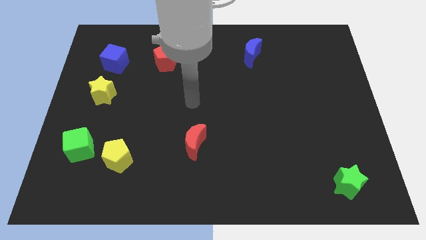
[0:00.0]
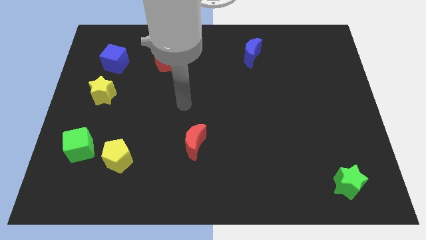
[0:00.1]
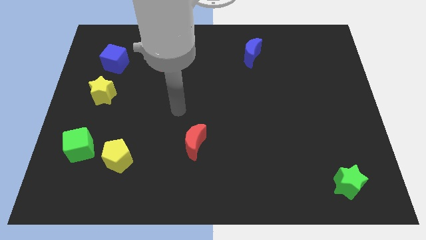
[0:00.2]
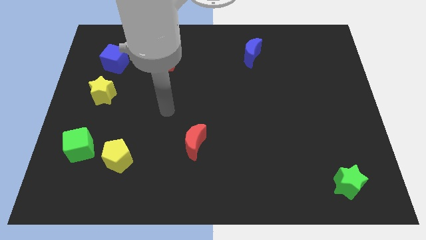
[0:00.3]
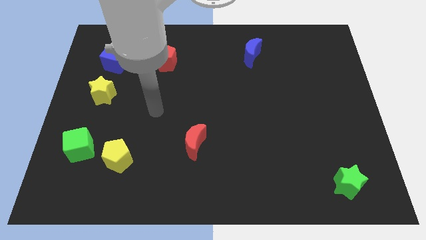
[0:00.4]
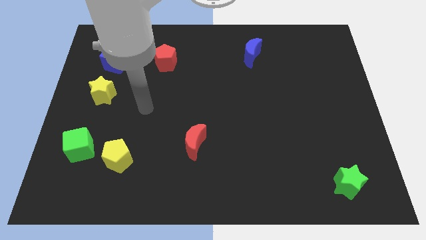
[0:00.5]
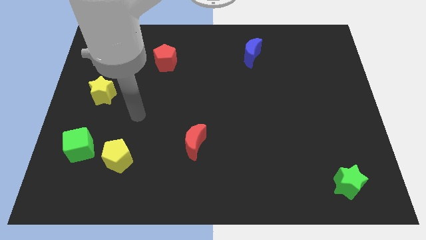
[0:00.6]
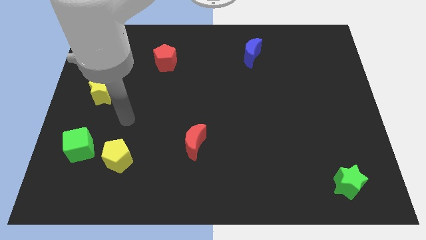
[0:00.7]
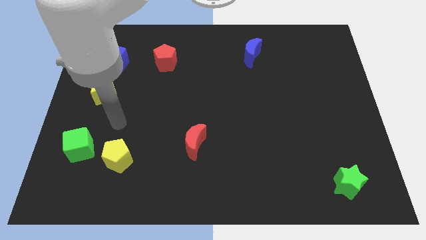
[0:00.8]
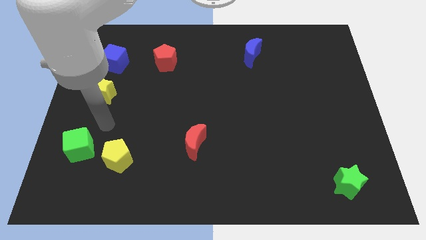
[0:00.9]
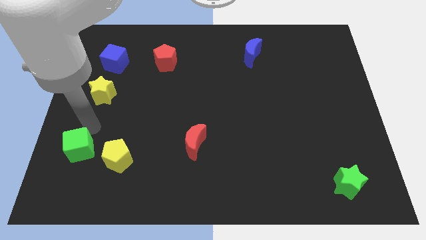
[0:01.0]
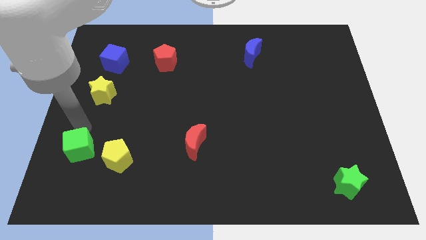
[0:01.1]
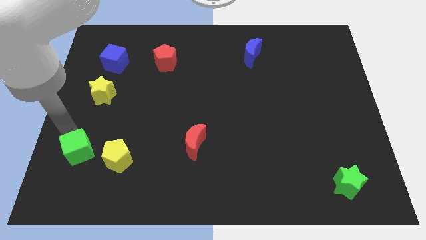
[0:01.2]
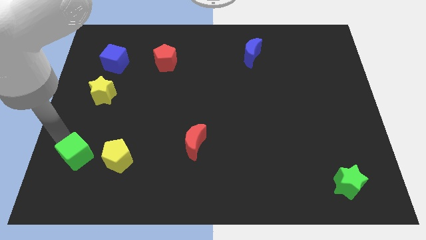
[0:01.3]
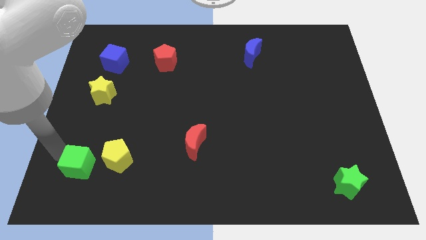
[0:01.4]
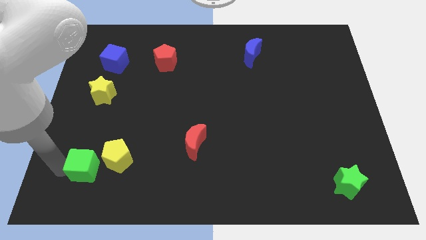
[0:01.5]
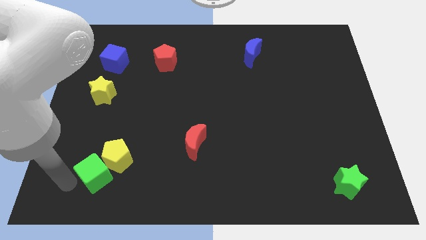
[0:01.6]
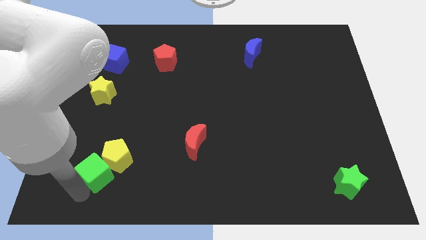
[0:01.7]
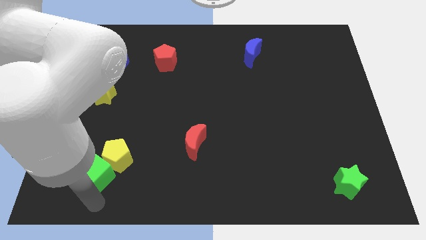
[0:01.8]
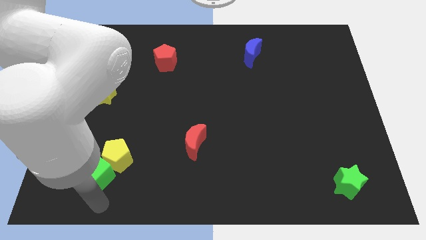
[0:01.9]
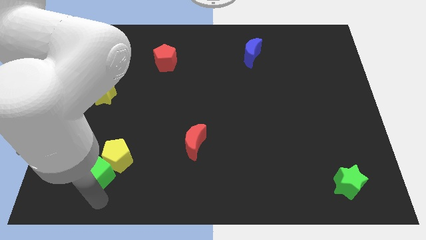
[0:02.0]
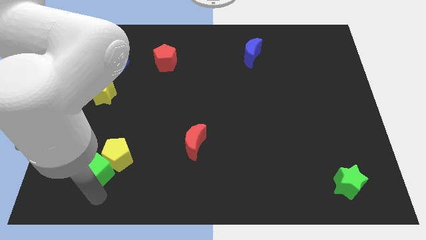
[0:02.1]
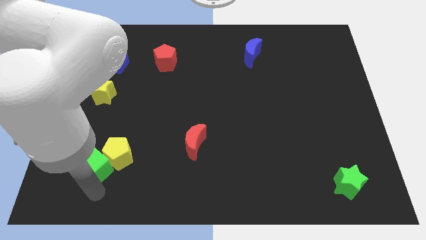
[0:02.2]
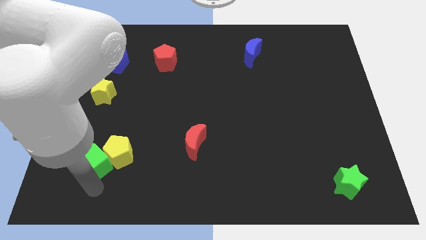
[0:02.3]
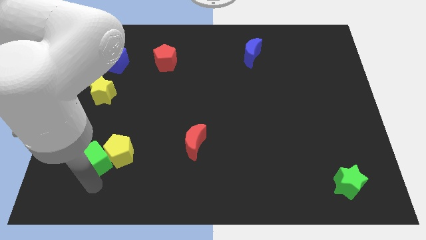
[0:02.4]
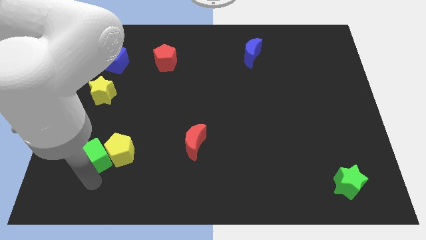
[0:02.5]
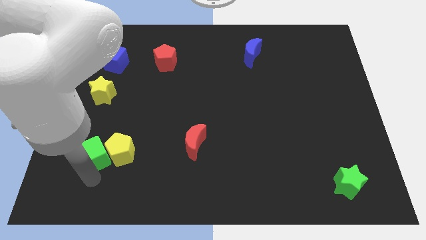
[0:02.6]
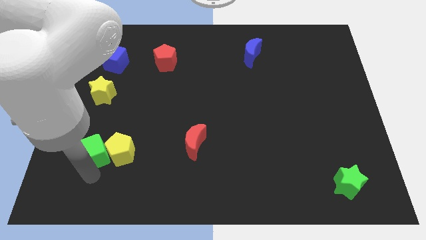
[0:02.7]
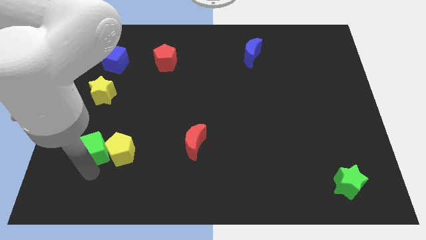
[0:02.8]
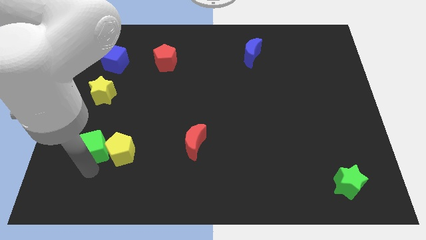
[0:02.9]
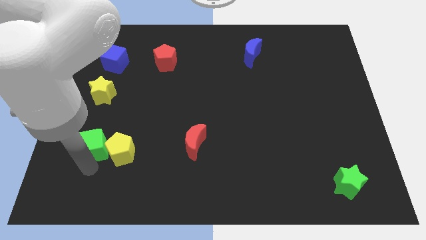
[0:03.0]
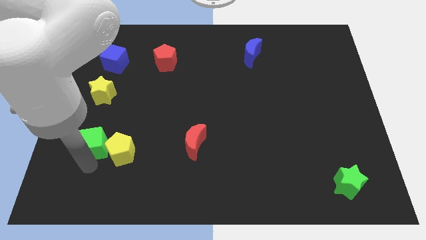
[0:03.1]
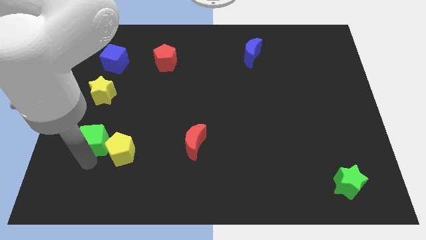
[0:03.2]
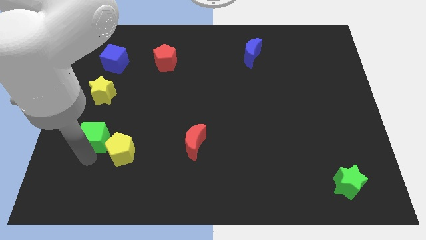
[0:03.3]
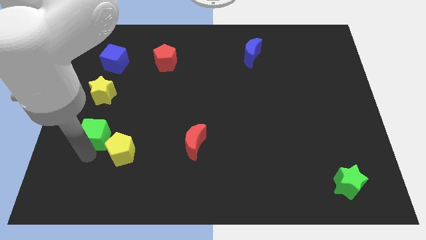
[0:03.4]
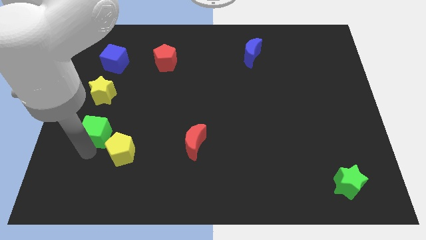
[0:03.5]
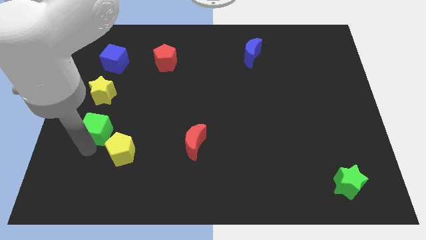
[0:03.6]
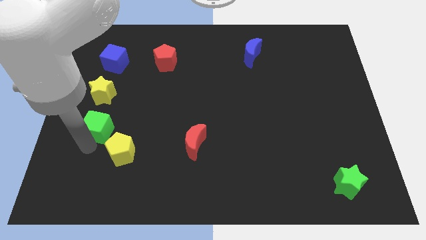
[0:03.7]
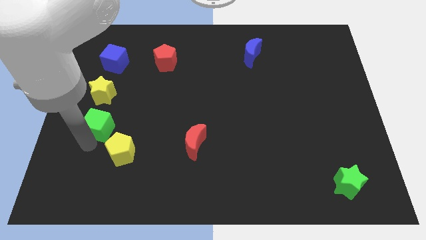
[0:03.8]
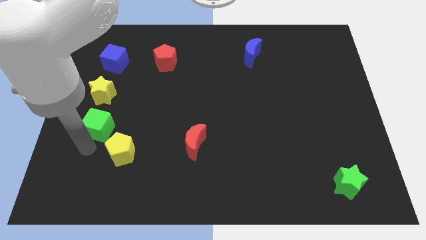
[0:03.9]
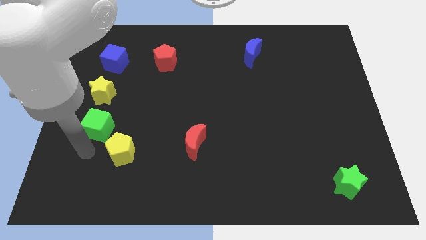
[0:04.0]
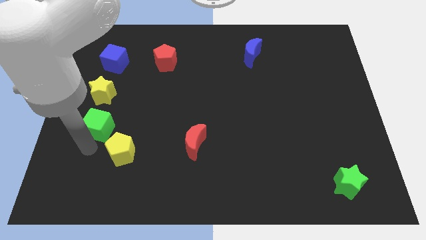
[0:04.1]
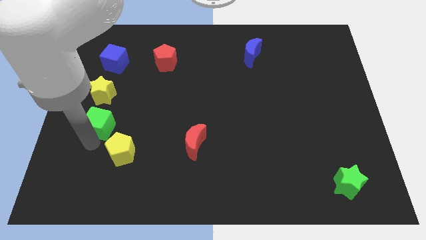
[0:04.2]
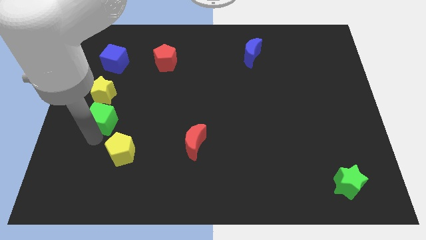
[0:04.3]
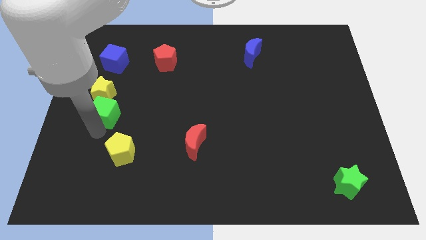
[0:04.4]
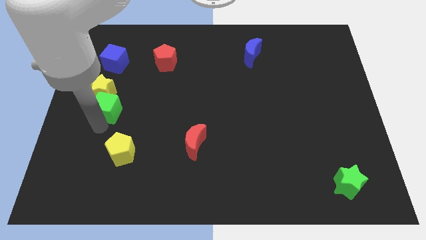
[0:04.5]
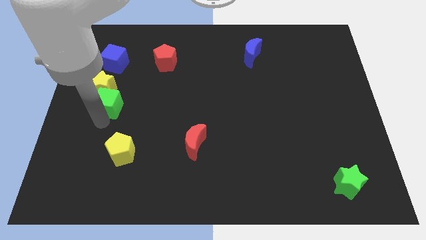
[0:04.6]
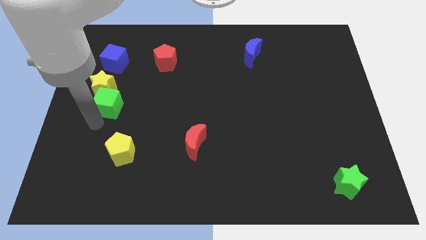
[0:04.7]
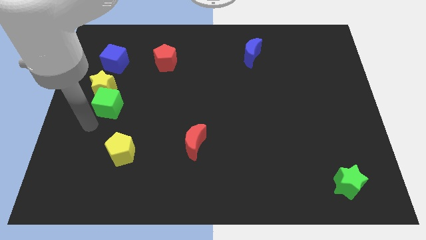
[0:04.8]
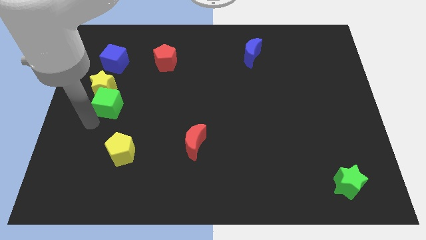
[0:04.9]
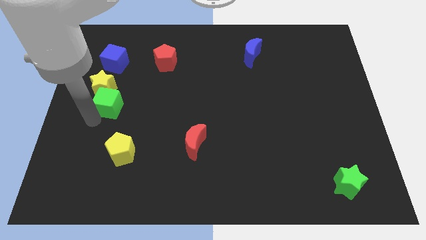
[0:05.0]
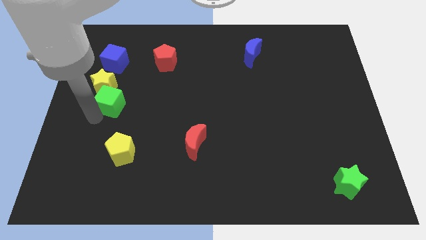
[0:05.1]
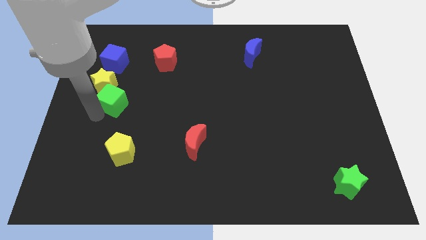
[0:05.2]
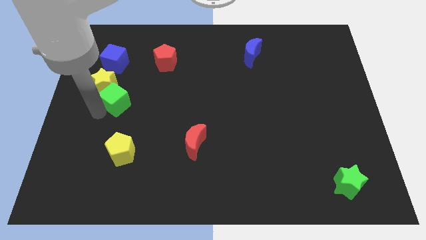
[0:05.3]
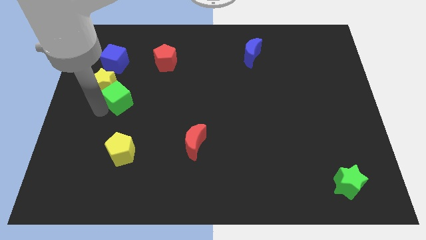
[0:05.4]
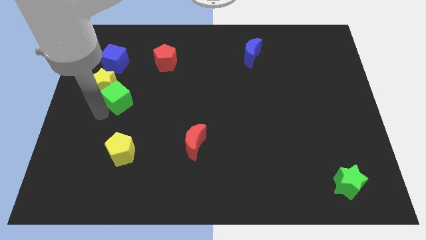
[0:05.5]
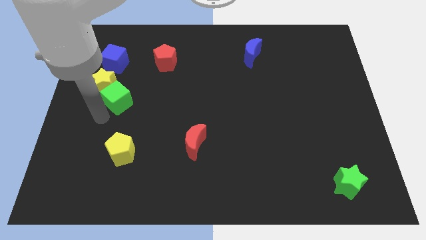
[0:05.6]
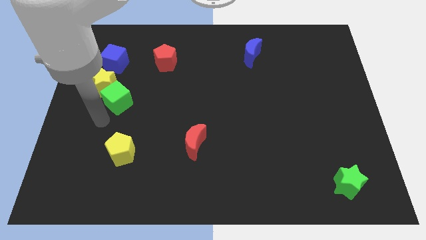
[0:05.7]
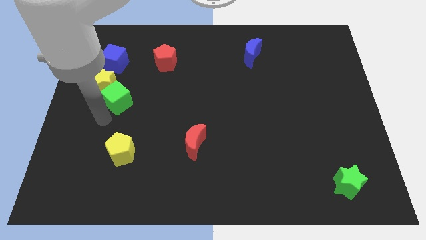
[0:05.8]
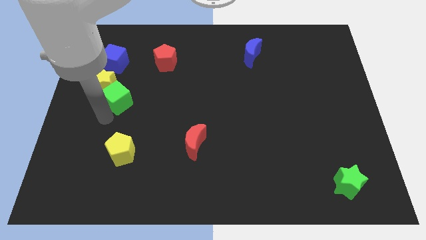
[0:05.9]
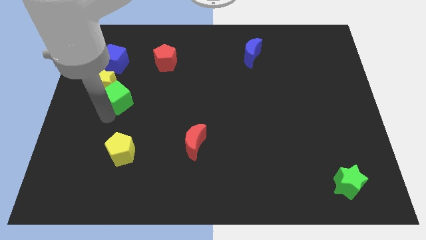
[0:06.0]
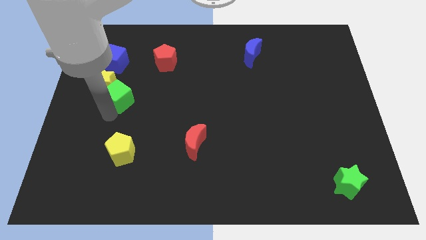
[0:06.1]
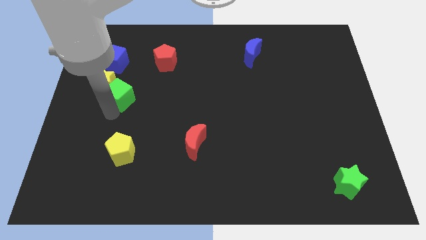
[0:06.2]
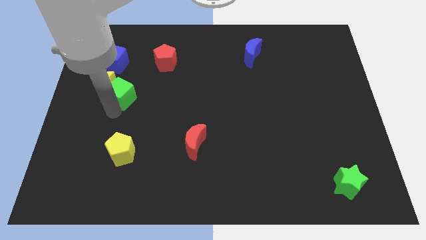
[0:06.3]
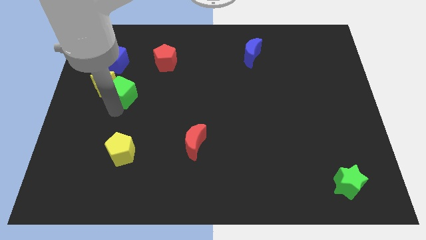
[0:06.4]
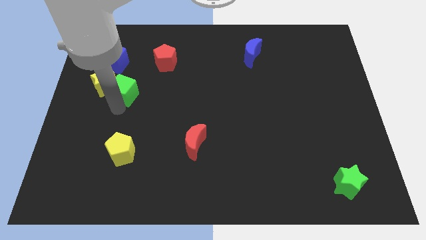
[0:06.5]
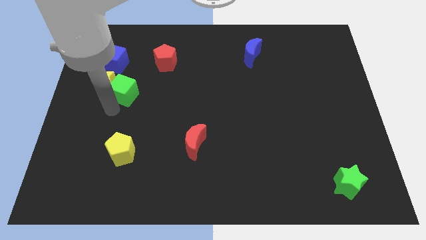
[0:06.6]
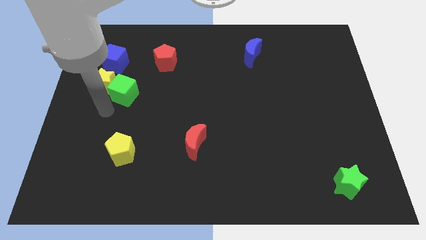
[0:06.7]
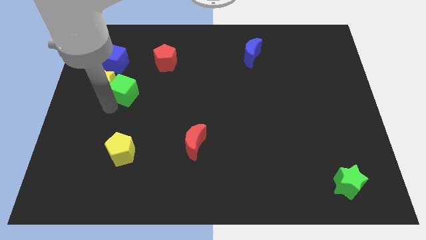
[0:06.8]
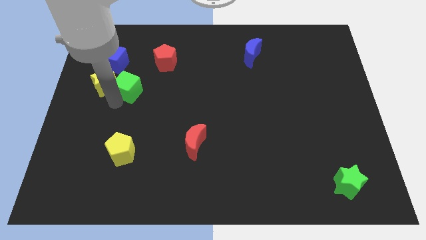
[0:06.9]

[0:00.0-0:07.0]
move the green cube diagonally down and to the left of the red pentagon

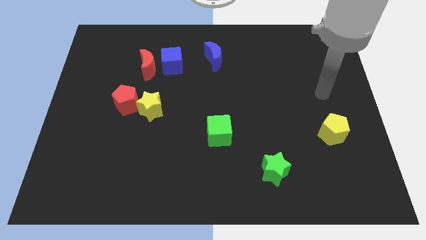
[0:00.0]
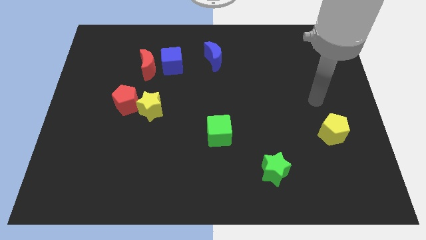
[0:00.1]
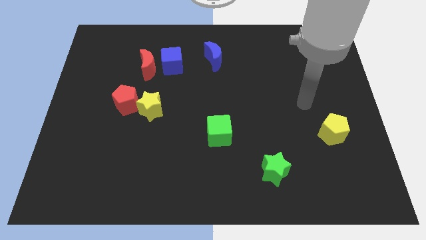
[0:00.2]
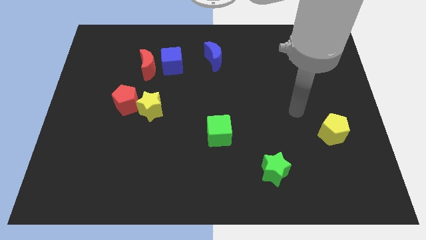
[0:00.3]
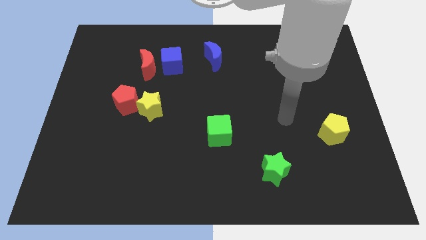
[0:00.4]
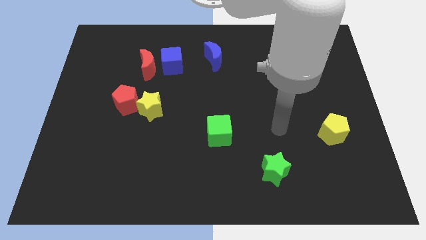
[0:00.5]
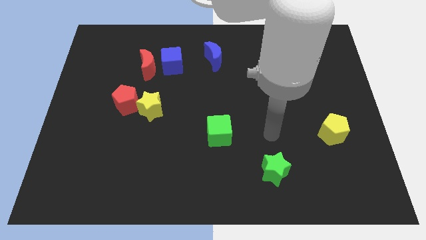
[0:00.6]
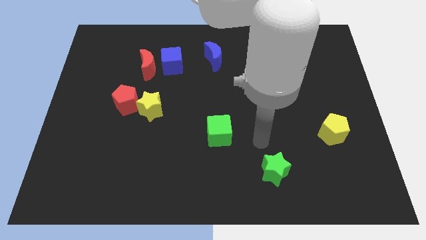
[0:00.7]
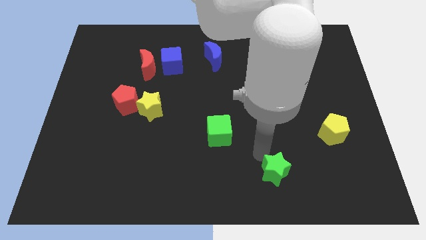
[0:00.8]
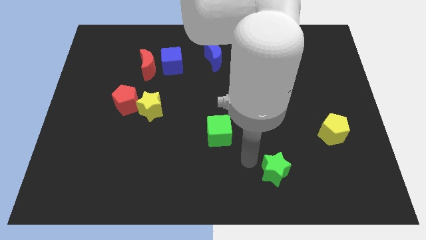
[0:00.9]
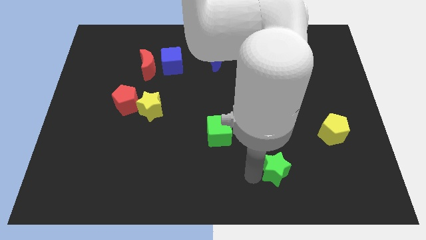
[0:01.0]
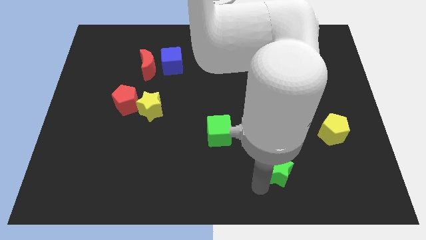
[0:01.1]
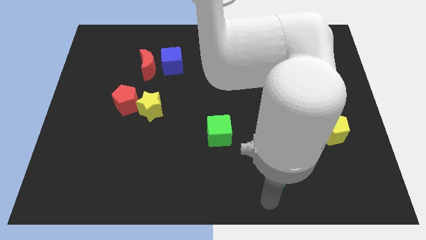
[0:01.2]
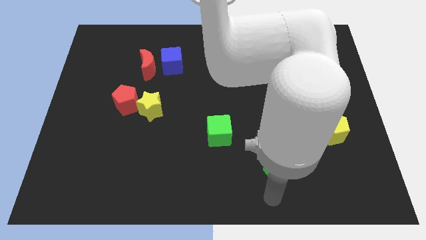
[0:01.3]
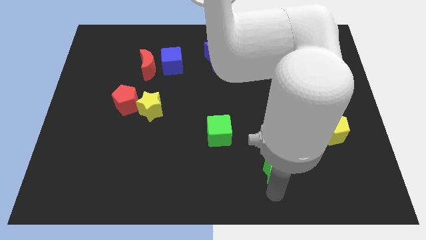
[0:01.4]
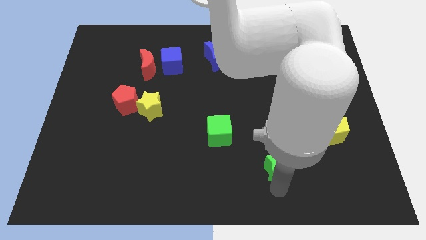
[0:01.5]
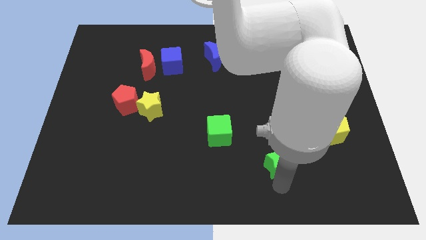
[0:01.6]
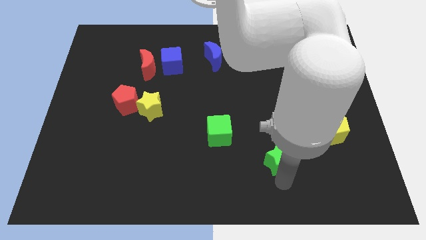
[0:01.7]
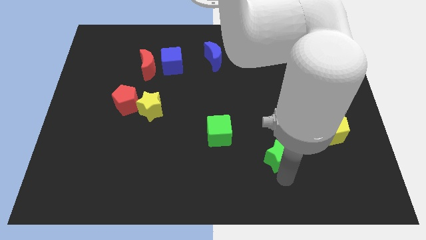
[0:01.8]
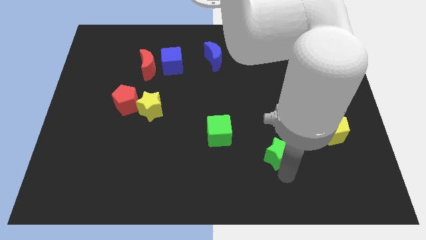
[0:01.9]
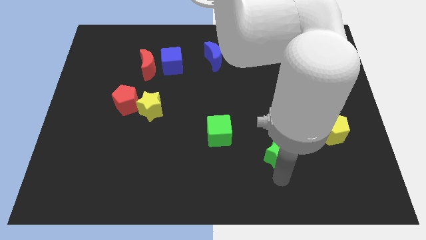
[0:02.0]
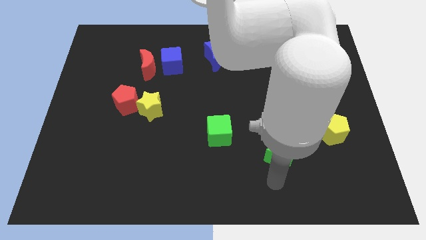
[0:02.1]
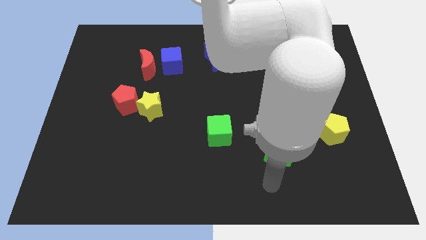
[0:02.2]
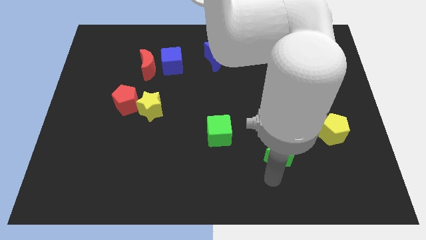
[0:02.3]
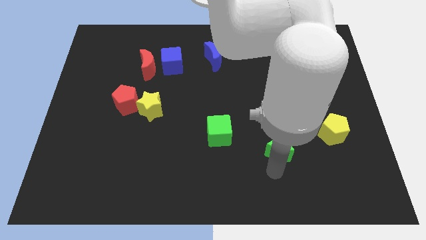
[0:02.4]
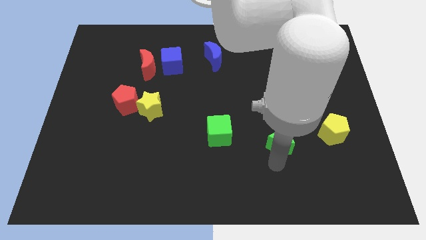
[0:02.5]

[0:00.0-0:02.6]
push the green star just left of the yellow pentagon
